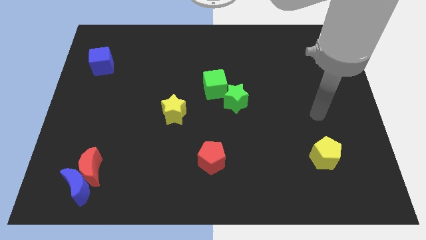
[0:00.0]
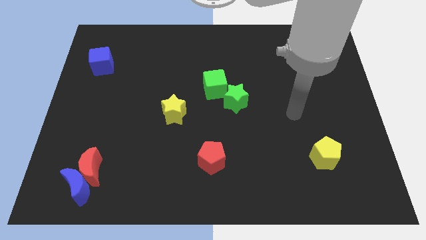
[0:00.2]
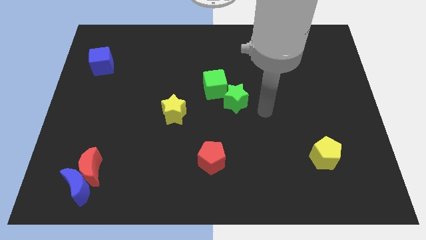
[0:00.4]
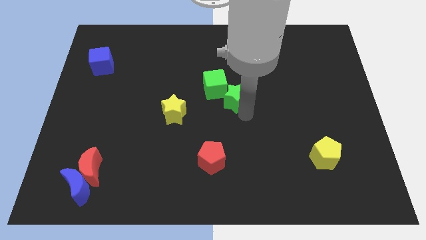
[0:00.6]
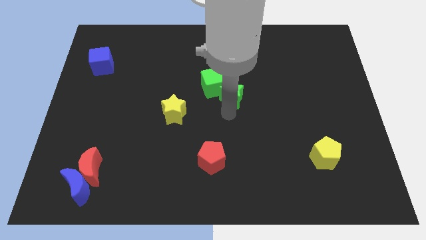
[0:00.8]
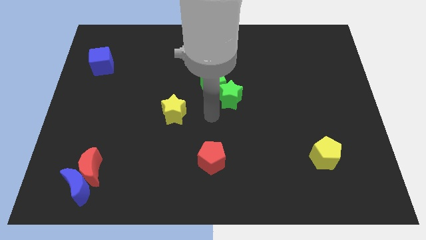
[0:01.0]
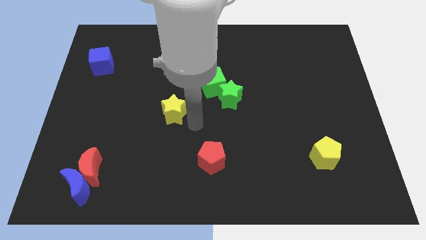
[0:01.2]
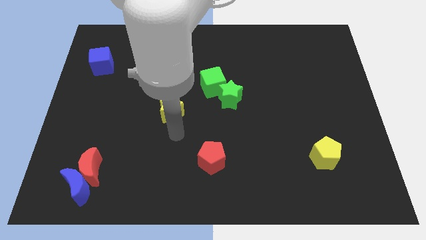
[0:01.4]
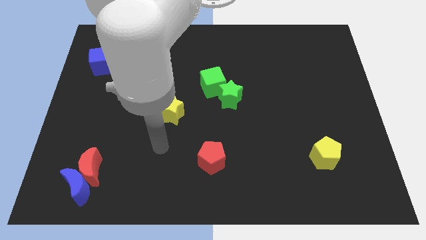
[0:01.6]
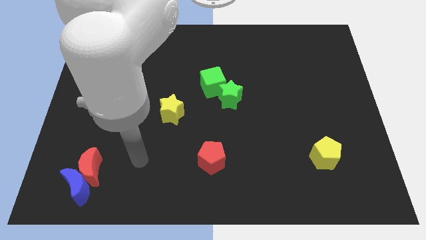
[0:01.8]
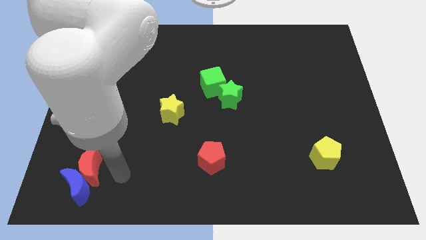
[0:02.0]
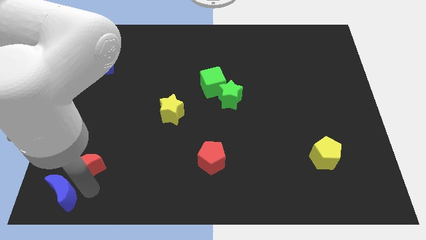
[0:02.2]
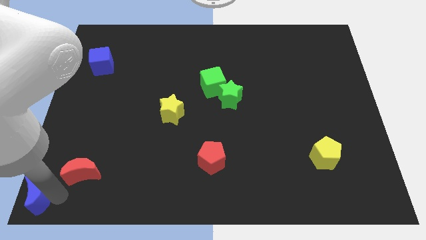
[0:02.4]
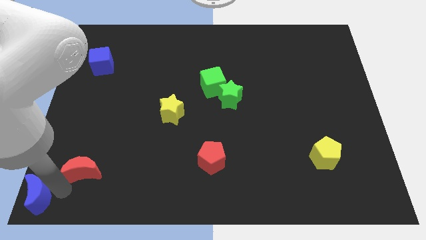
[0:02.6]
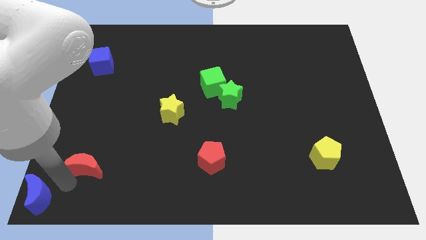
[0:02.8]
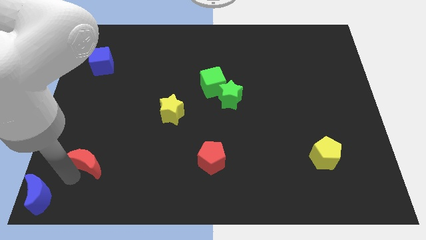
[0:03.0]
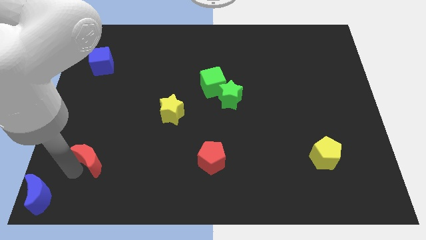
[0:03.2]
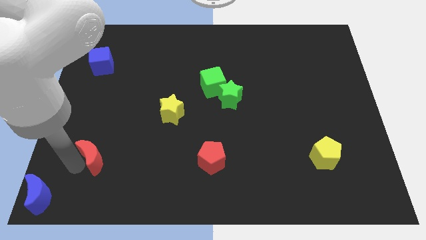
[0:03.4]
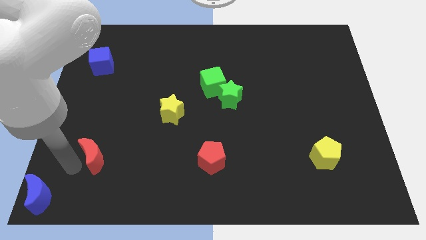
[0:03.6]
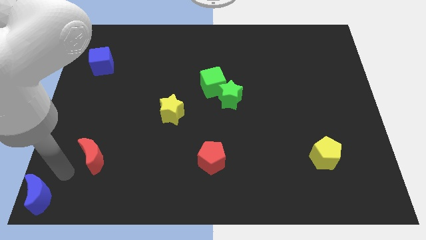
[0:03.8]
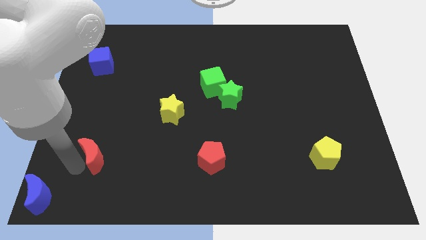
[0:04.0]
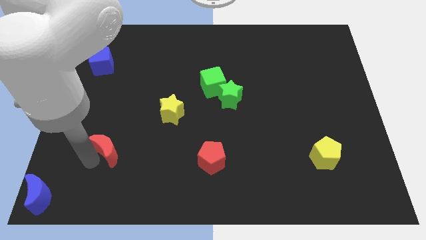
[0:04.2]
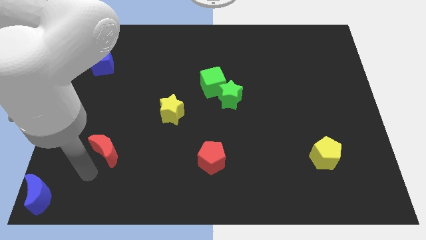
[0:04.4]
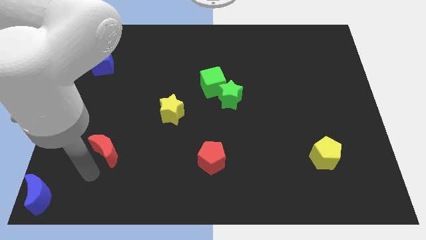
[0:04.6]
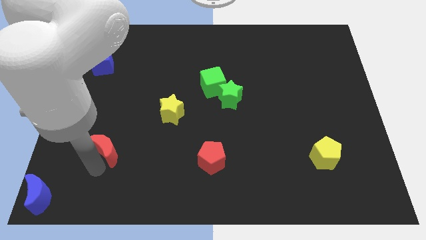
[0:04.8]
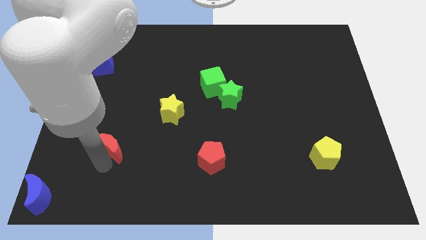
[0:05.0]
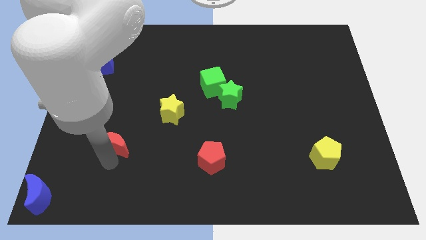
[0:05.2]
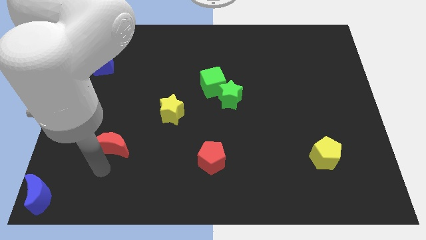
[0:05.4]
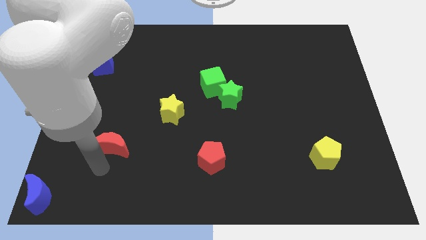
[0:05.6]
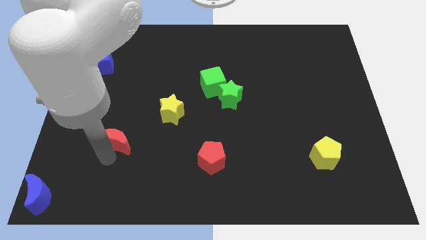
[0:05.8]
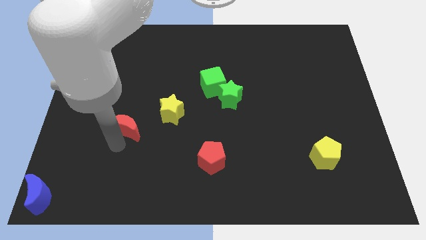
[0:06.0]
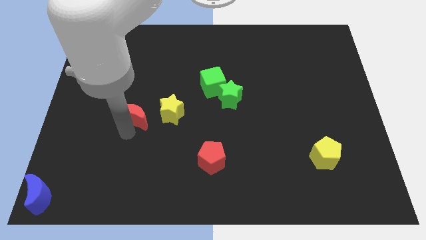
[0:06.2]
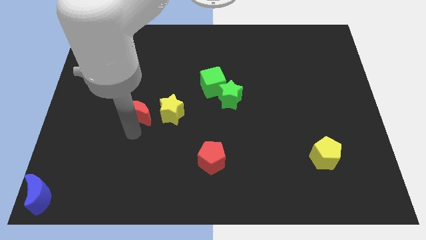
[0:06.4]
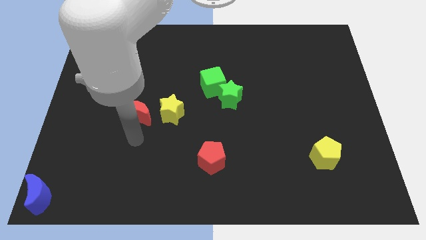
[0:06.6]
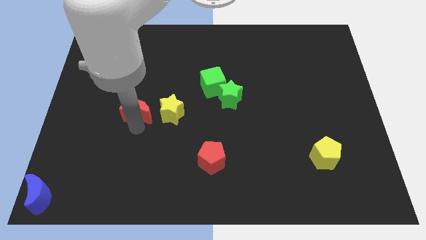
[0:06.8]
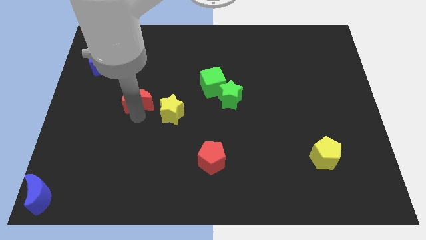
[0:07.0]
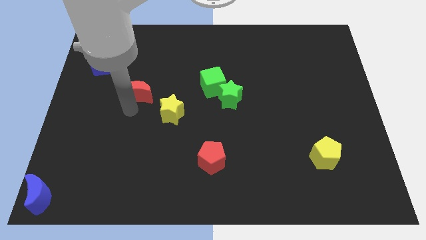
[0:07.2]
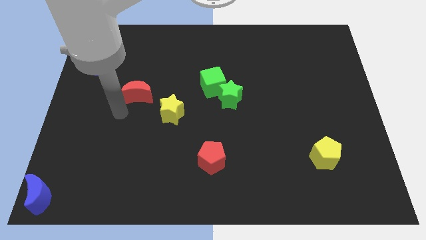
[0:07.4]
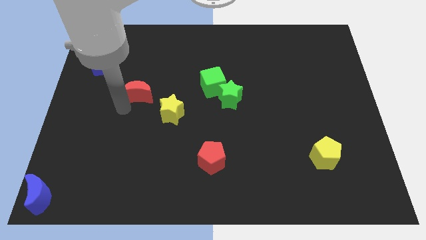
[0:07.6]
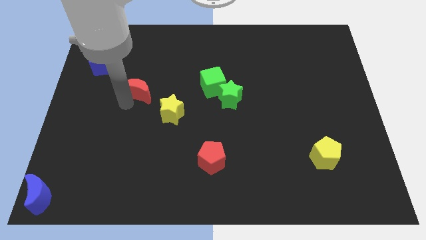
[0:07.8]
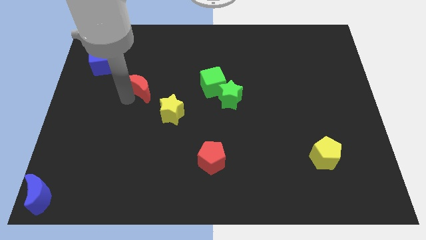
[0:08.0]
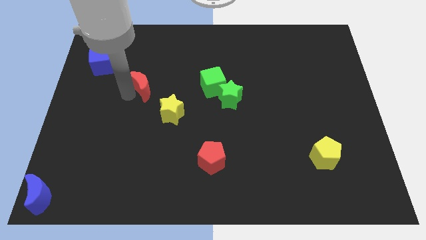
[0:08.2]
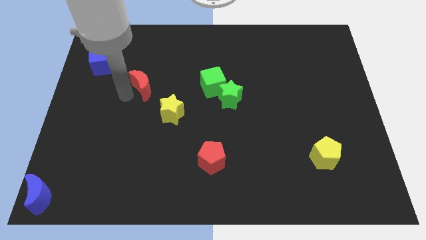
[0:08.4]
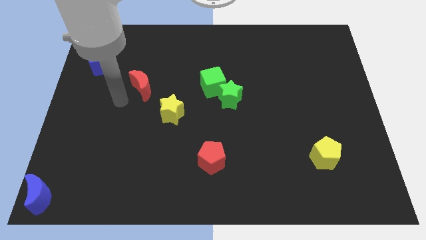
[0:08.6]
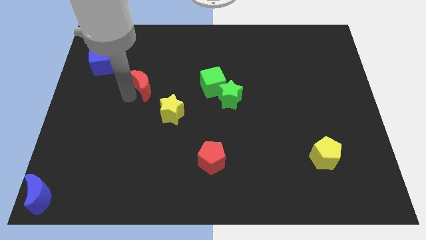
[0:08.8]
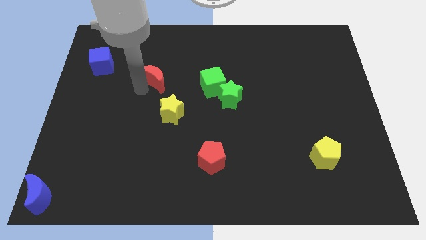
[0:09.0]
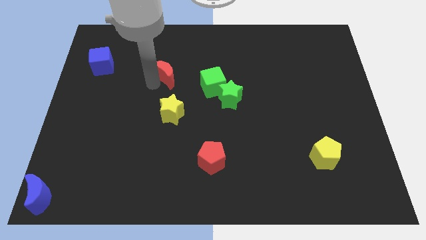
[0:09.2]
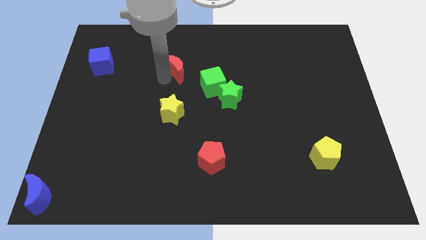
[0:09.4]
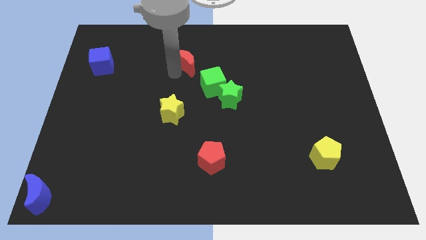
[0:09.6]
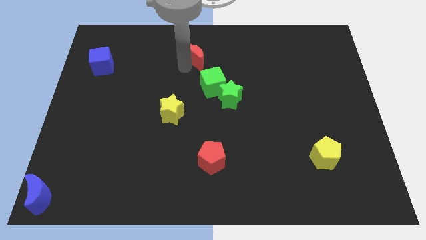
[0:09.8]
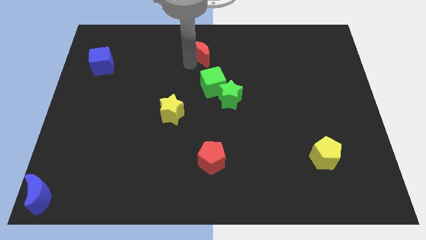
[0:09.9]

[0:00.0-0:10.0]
put the red moon to the top
